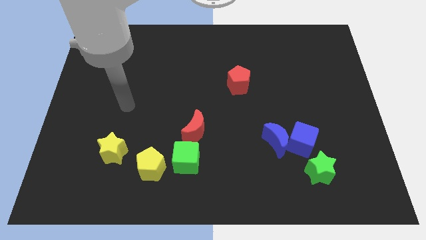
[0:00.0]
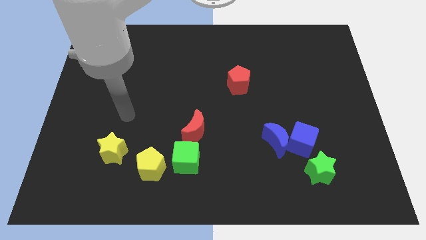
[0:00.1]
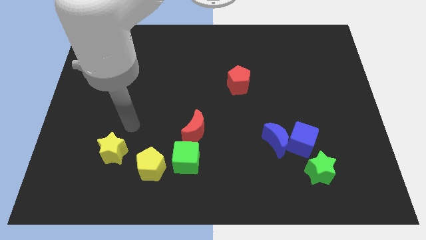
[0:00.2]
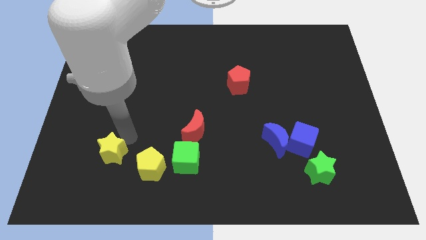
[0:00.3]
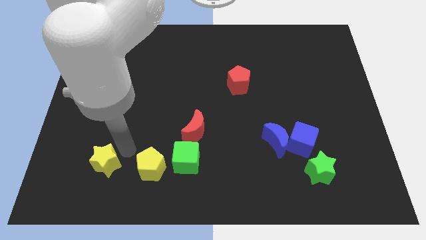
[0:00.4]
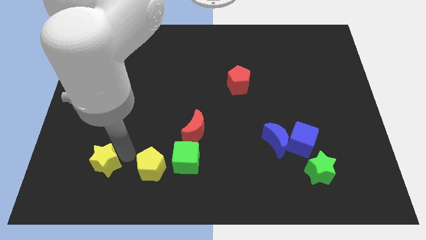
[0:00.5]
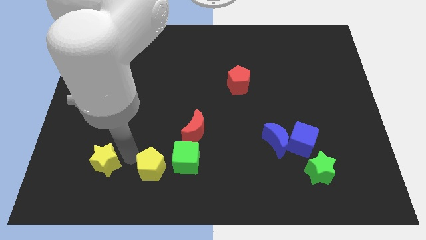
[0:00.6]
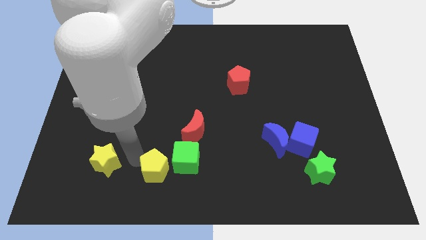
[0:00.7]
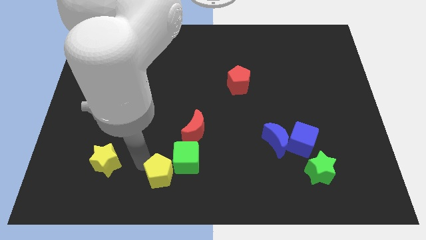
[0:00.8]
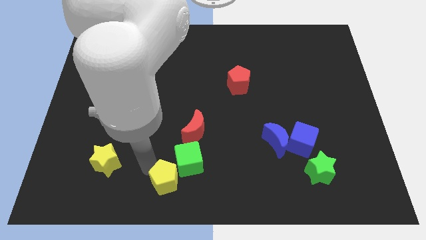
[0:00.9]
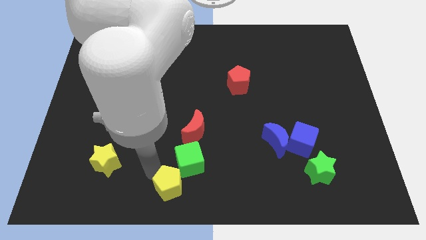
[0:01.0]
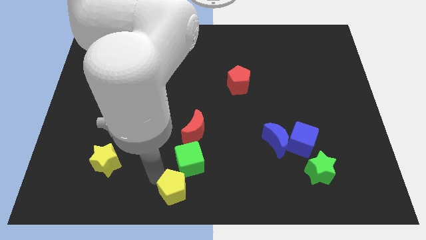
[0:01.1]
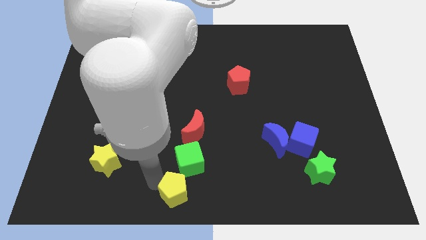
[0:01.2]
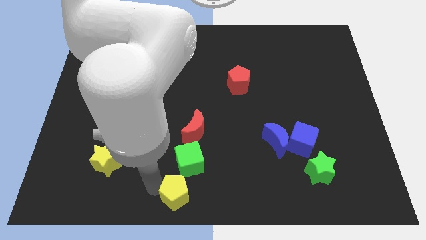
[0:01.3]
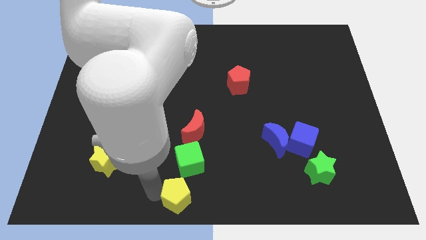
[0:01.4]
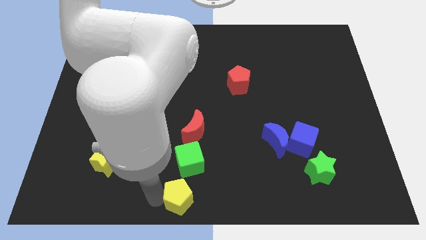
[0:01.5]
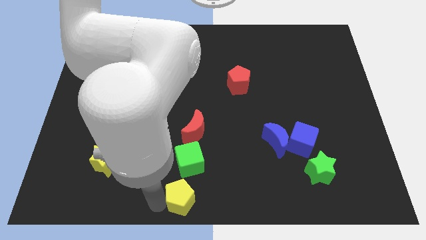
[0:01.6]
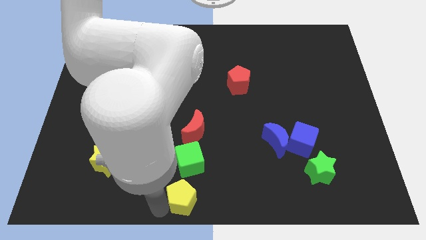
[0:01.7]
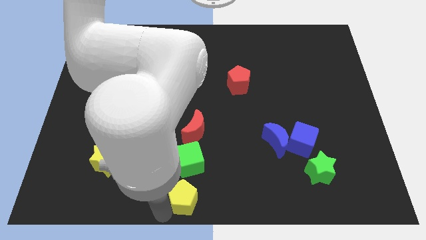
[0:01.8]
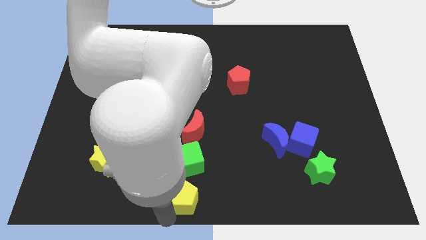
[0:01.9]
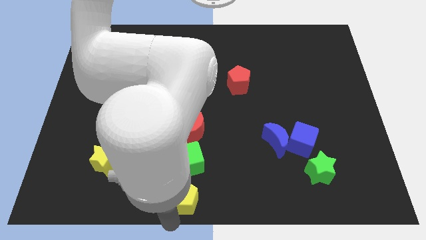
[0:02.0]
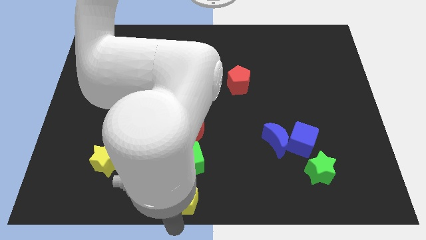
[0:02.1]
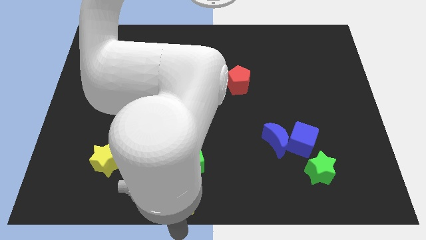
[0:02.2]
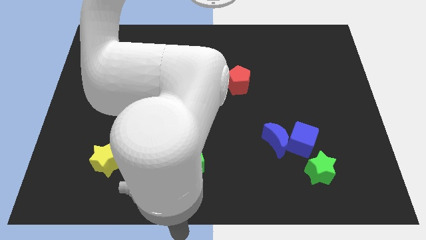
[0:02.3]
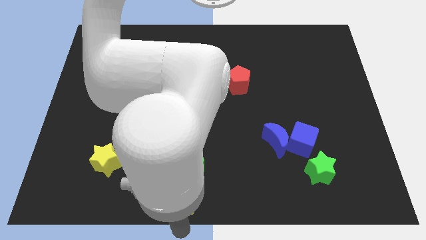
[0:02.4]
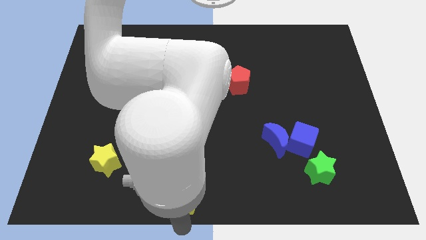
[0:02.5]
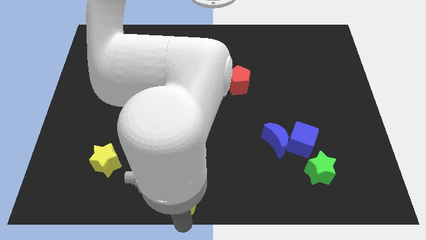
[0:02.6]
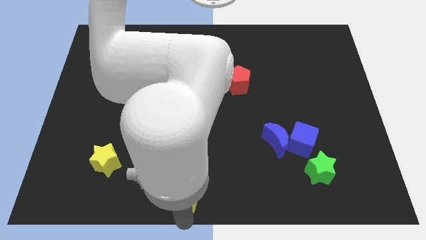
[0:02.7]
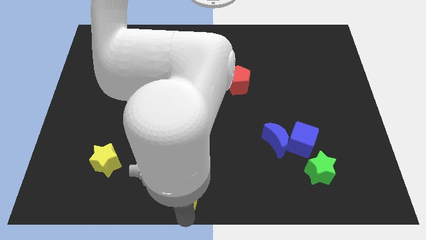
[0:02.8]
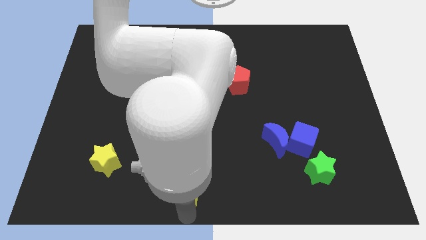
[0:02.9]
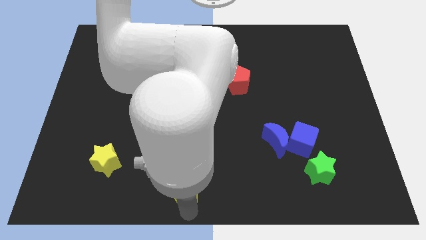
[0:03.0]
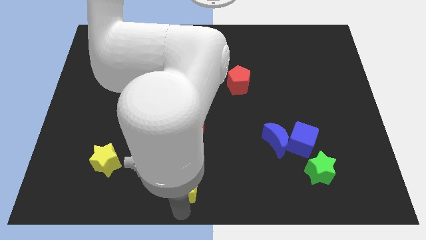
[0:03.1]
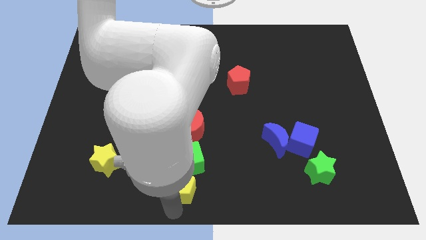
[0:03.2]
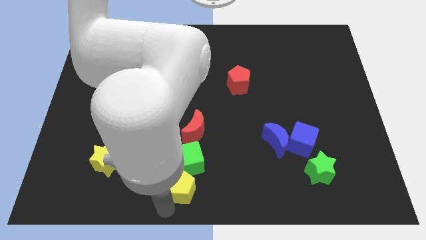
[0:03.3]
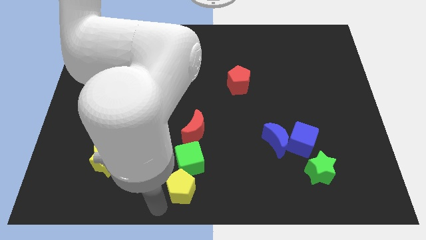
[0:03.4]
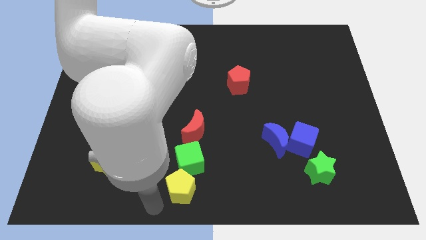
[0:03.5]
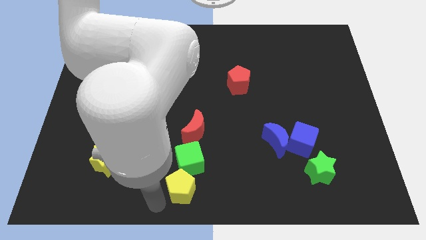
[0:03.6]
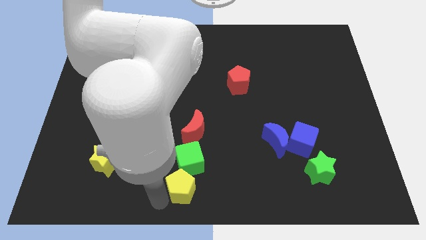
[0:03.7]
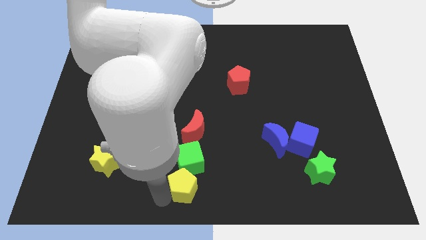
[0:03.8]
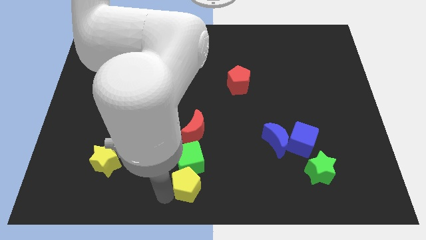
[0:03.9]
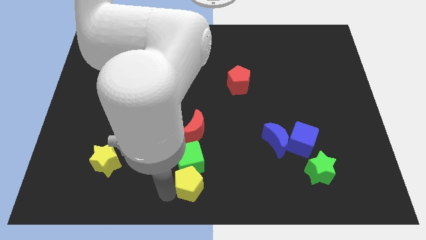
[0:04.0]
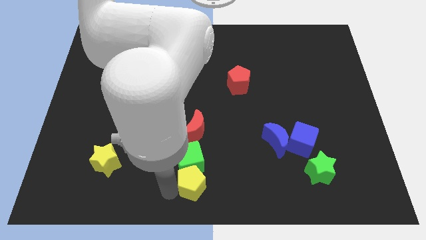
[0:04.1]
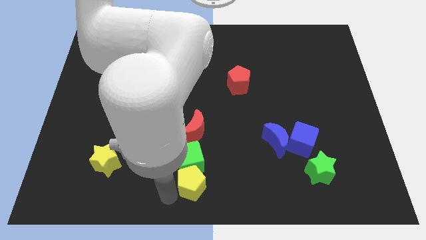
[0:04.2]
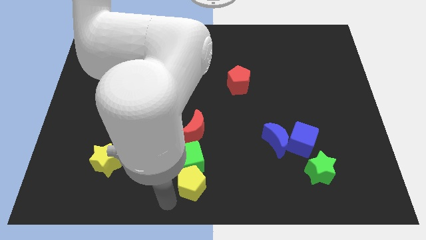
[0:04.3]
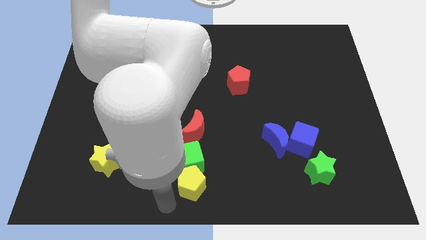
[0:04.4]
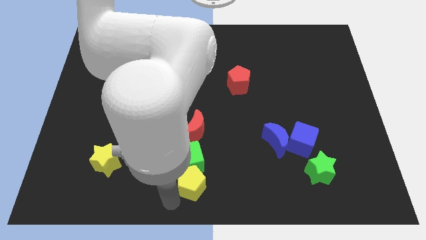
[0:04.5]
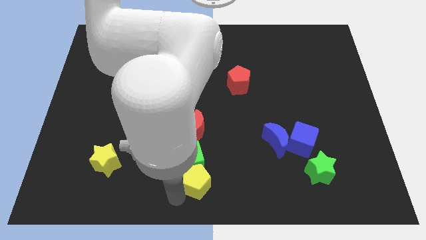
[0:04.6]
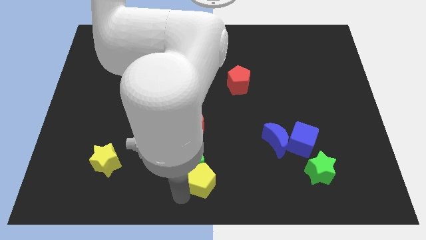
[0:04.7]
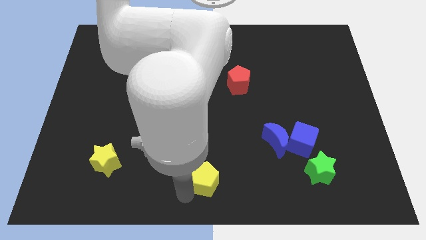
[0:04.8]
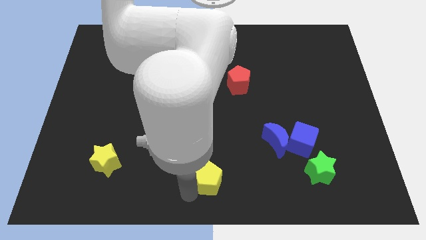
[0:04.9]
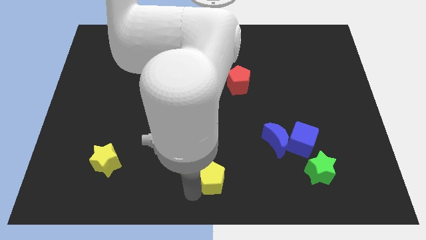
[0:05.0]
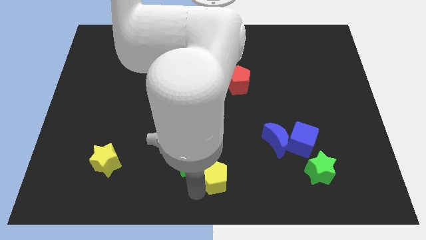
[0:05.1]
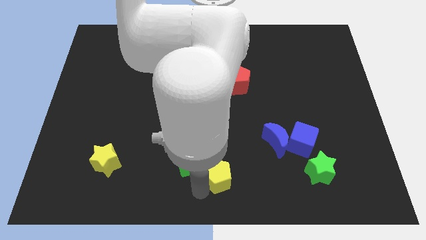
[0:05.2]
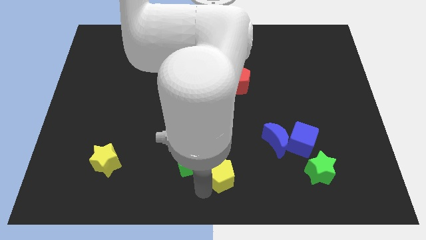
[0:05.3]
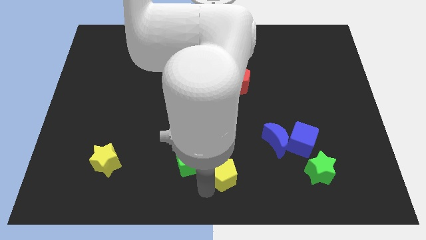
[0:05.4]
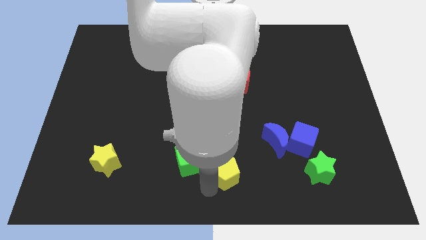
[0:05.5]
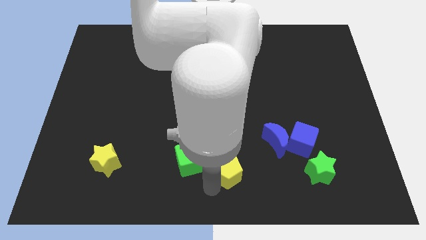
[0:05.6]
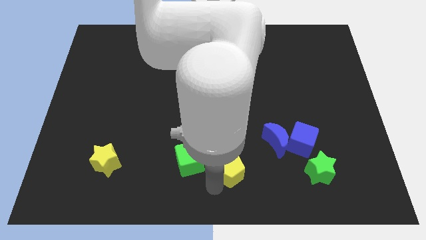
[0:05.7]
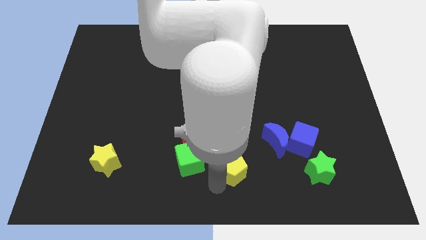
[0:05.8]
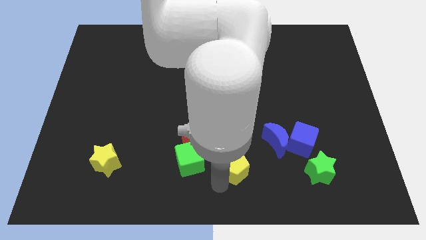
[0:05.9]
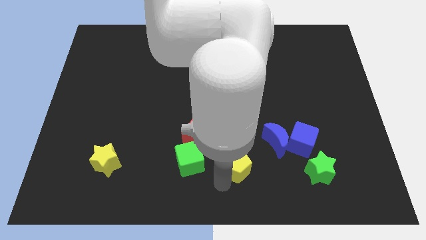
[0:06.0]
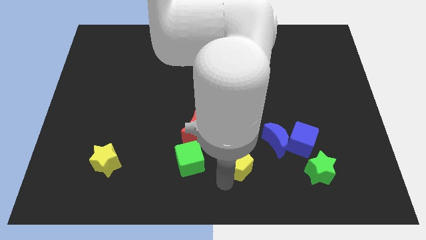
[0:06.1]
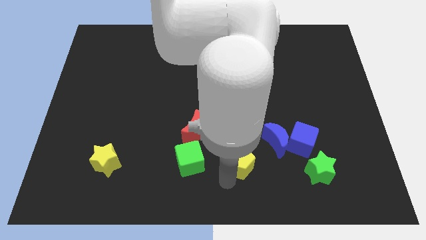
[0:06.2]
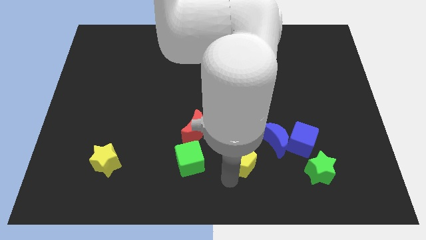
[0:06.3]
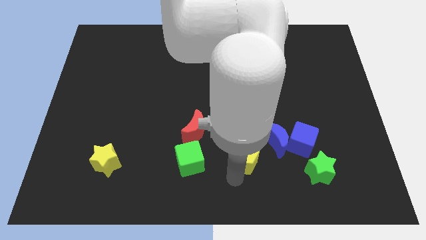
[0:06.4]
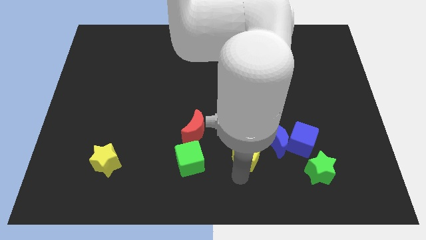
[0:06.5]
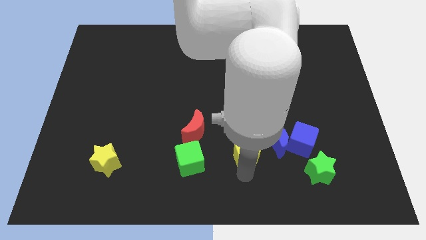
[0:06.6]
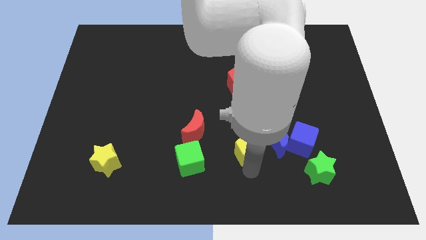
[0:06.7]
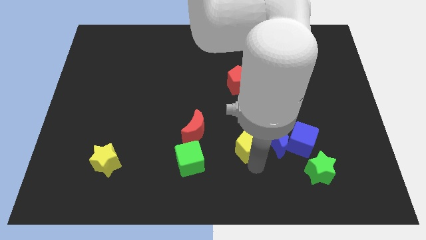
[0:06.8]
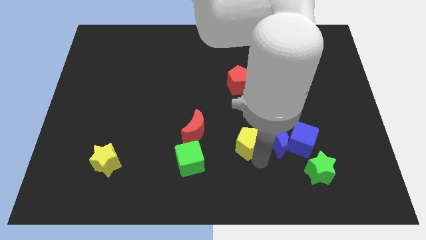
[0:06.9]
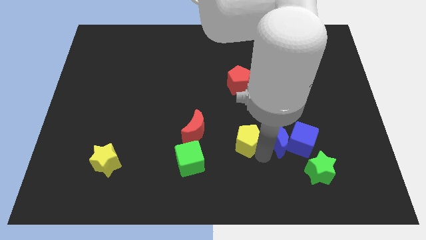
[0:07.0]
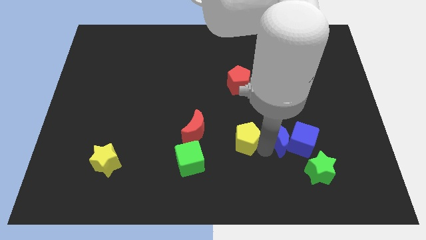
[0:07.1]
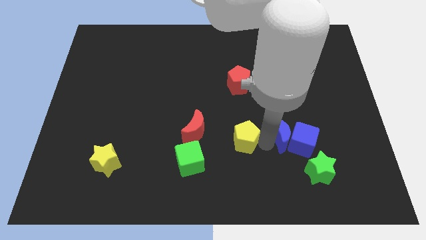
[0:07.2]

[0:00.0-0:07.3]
slide the yellow pentagon to the bottom of the red pentagon

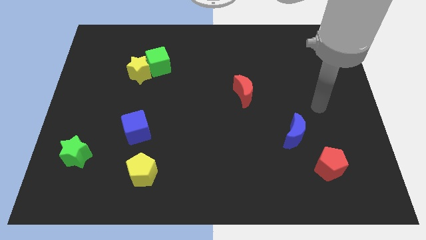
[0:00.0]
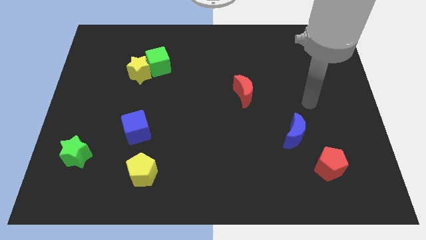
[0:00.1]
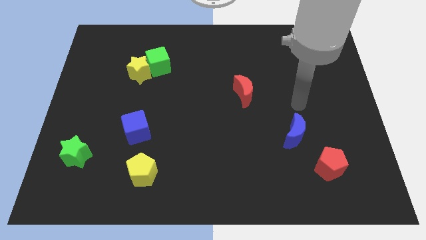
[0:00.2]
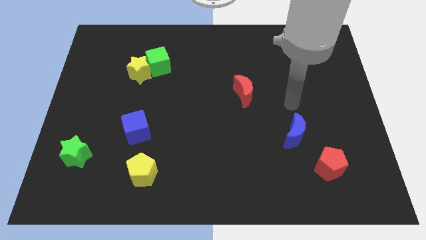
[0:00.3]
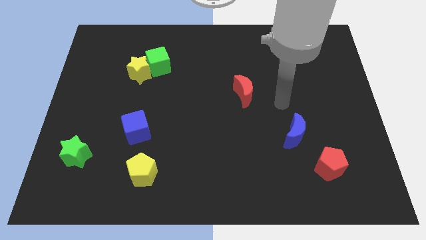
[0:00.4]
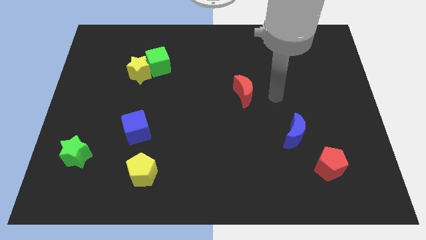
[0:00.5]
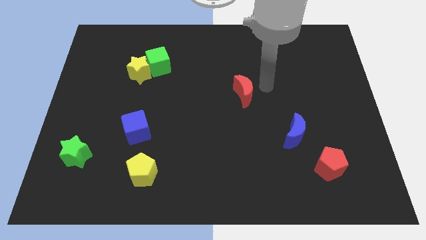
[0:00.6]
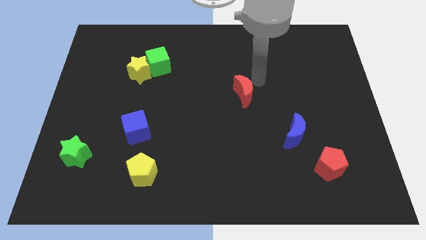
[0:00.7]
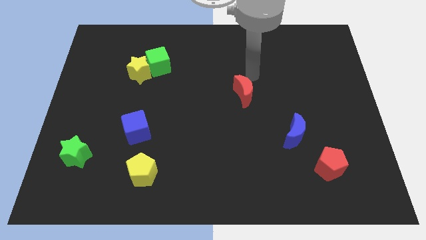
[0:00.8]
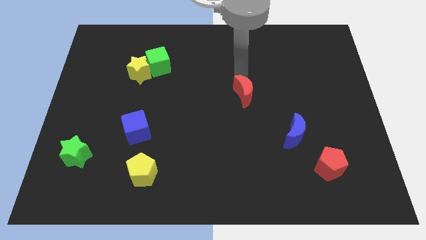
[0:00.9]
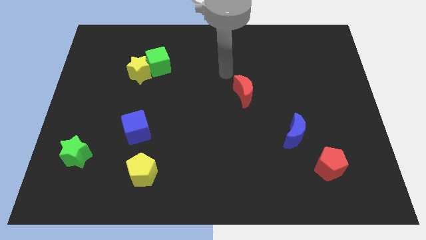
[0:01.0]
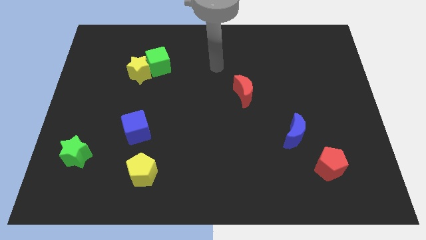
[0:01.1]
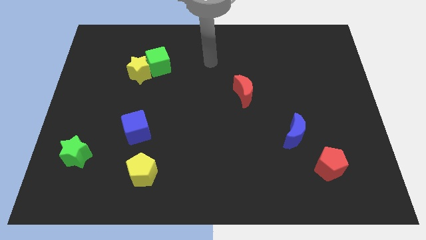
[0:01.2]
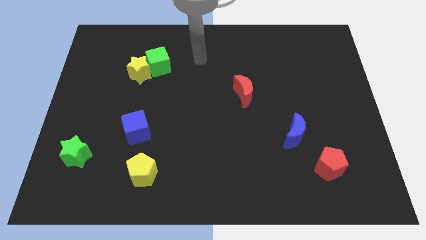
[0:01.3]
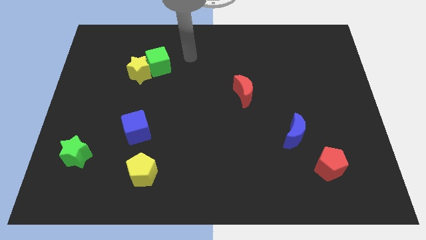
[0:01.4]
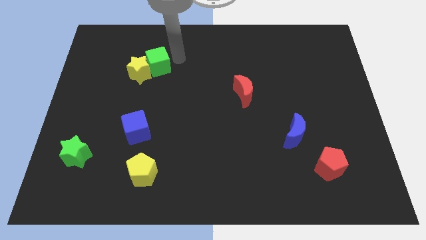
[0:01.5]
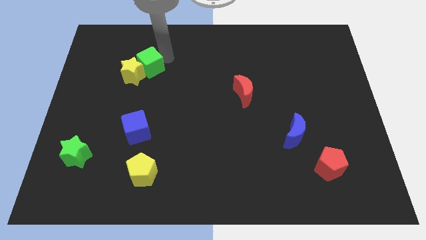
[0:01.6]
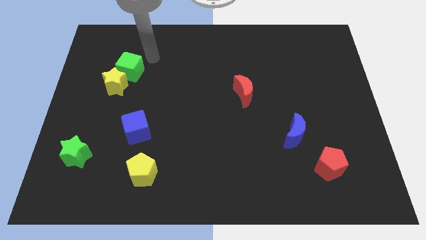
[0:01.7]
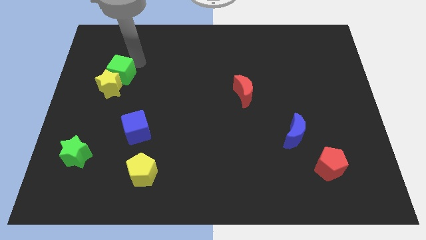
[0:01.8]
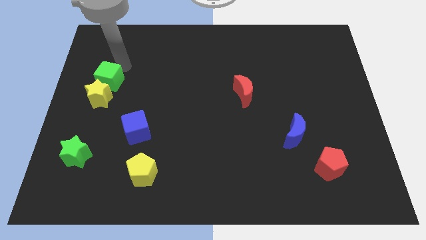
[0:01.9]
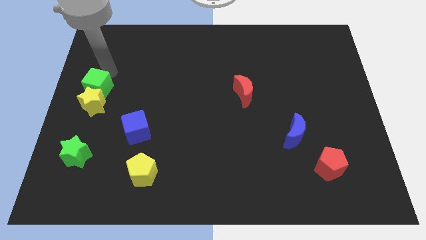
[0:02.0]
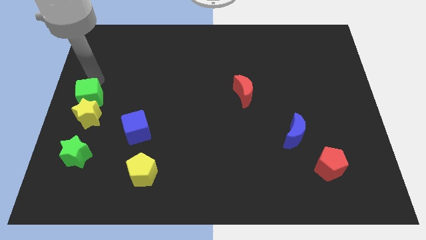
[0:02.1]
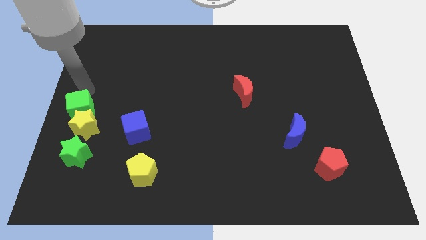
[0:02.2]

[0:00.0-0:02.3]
put the yellow star to the top right side of the green star
